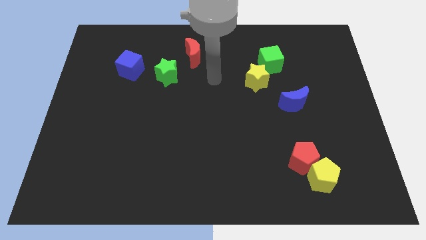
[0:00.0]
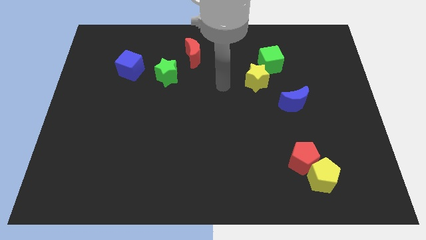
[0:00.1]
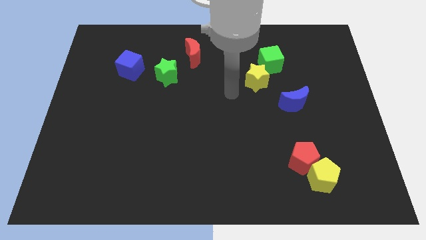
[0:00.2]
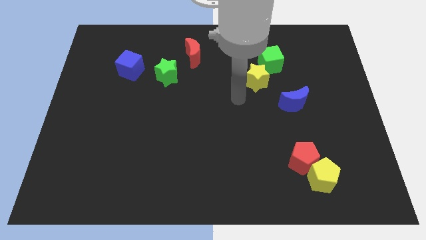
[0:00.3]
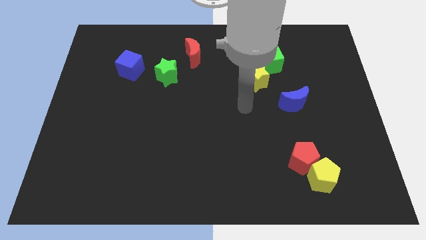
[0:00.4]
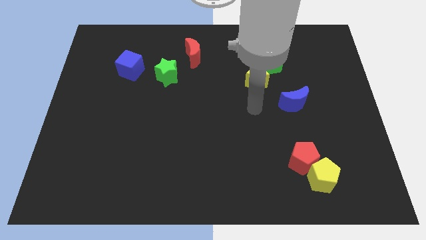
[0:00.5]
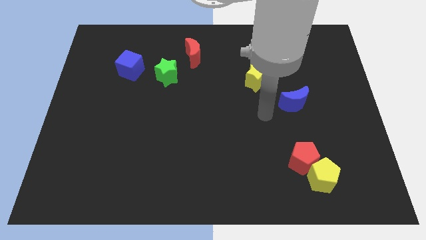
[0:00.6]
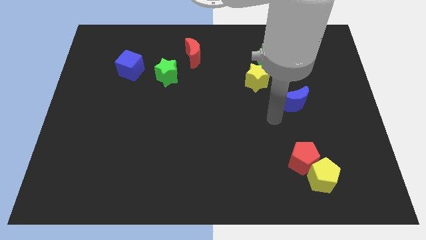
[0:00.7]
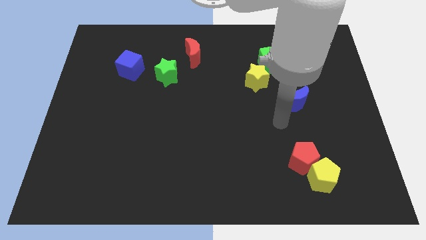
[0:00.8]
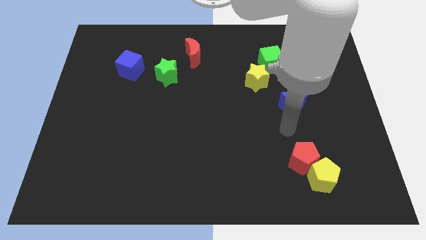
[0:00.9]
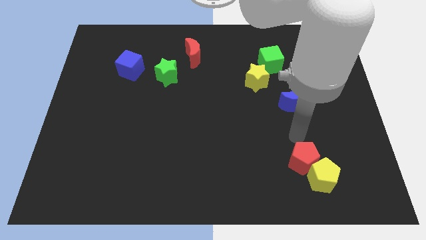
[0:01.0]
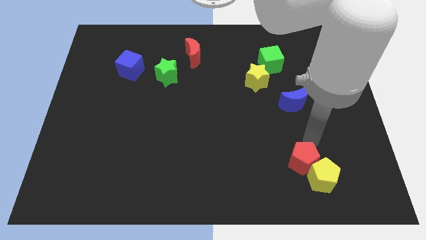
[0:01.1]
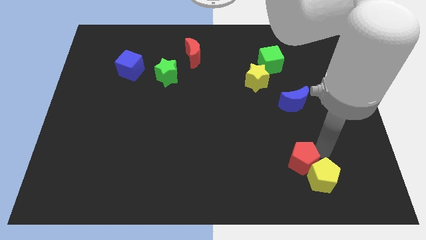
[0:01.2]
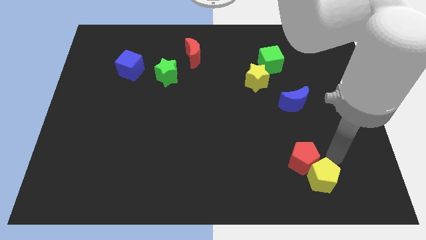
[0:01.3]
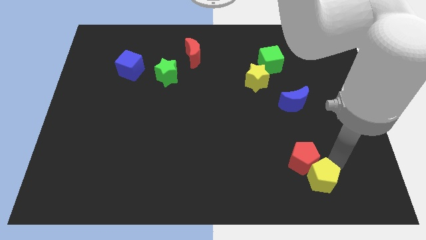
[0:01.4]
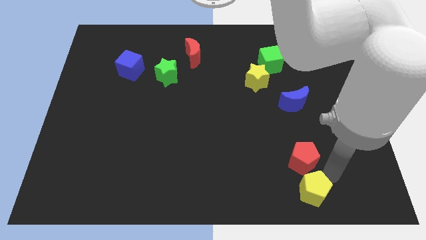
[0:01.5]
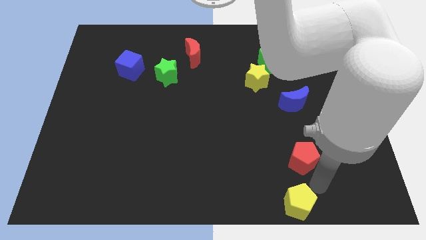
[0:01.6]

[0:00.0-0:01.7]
pull the red pentagon apart from the yellow pentagon

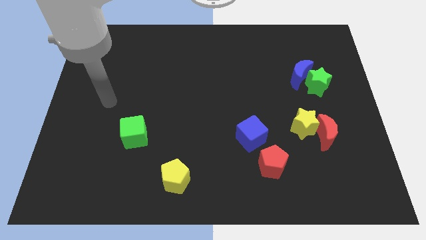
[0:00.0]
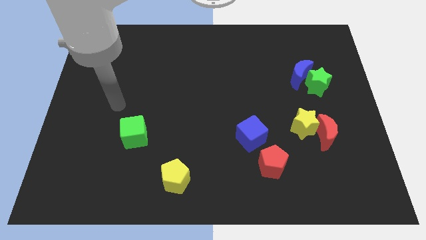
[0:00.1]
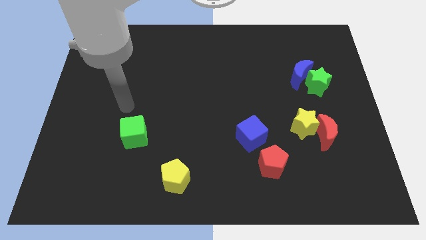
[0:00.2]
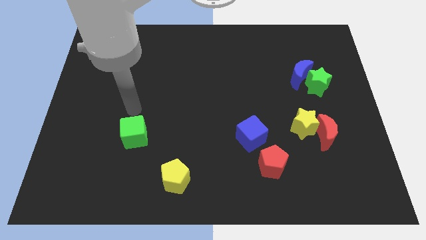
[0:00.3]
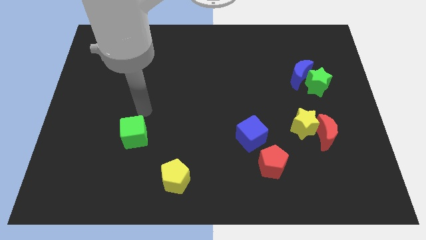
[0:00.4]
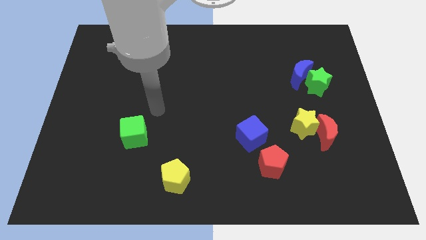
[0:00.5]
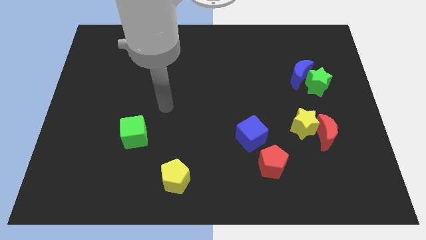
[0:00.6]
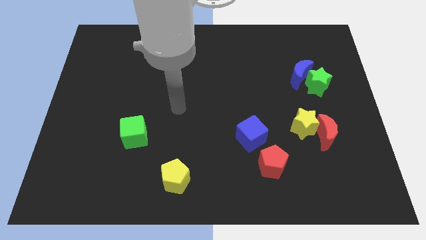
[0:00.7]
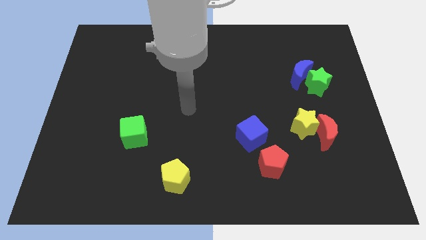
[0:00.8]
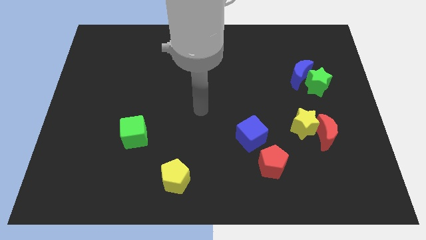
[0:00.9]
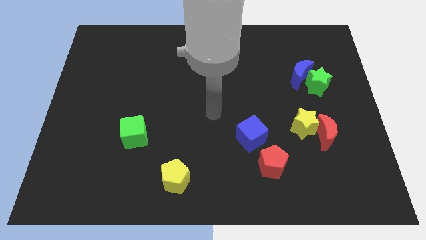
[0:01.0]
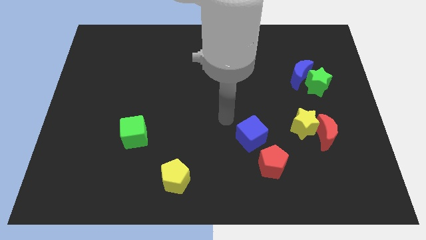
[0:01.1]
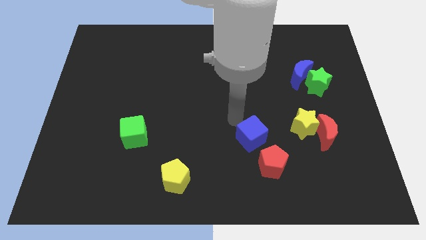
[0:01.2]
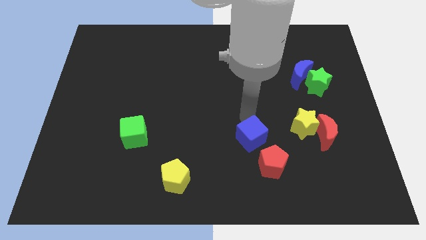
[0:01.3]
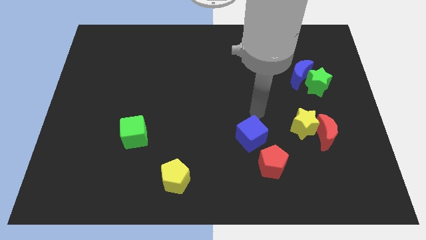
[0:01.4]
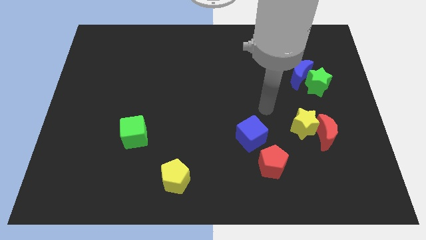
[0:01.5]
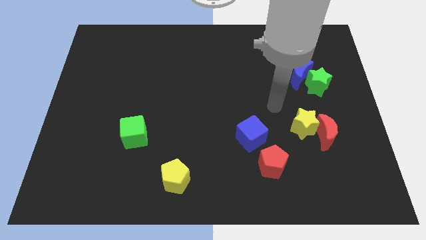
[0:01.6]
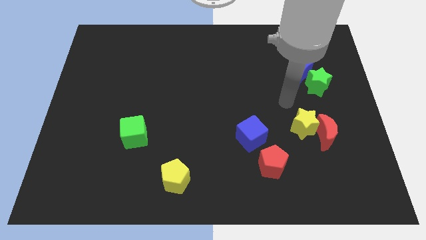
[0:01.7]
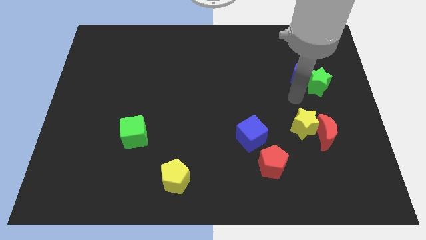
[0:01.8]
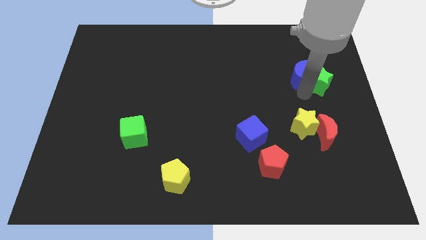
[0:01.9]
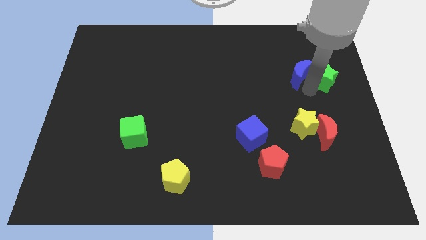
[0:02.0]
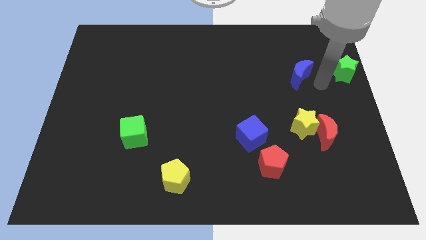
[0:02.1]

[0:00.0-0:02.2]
separate the blue moon from the green star

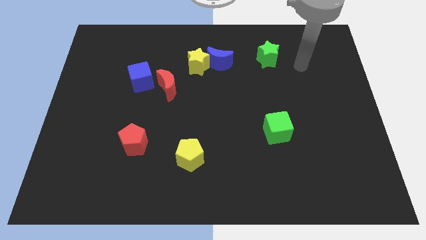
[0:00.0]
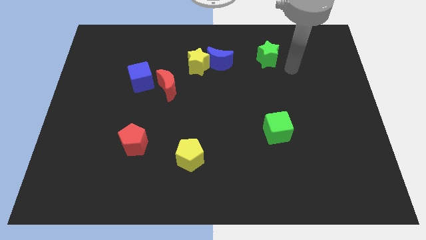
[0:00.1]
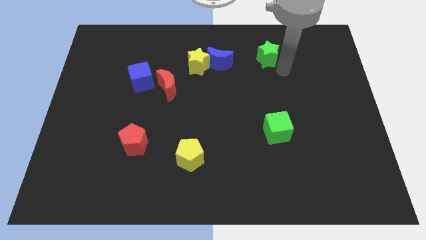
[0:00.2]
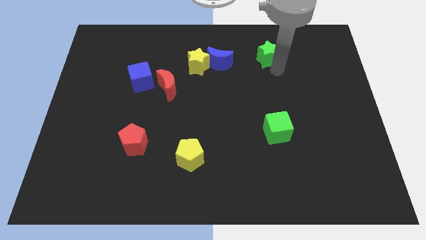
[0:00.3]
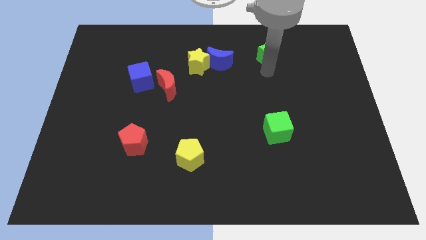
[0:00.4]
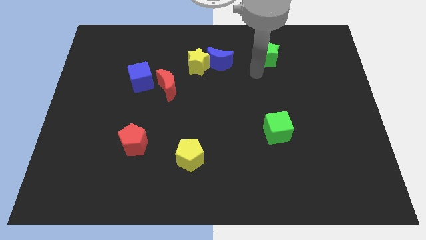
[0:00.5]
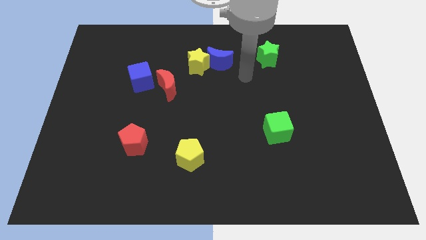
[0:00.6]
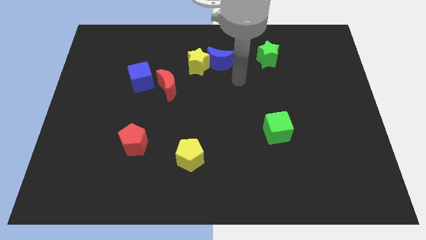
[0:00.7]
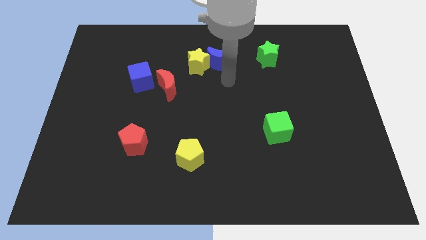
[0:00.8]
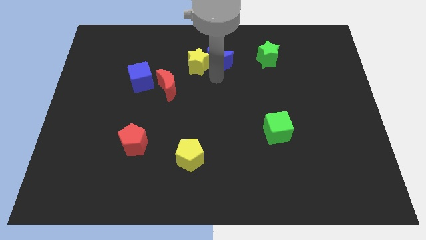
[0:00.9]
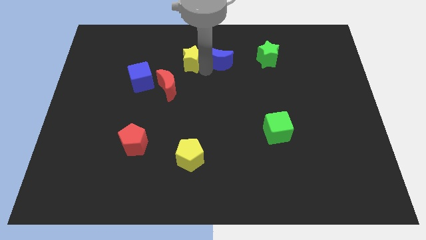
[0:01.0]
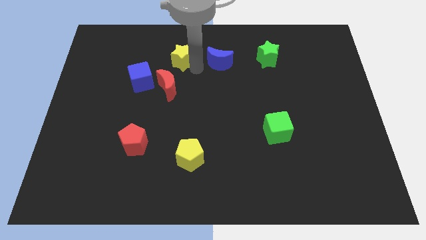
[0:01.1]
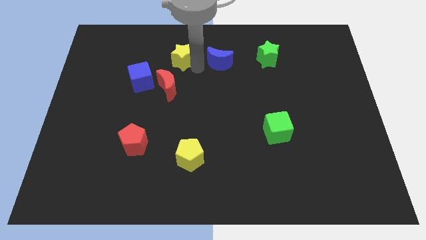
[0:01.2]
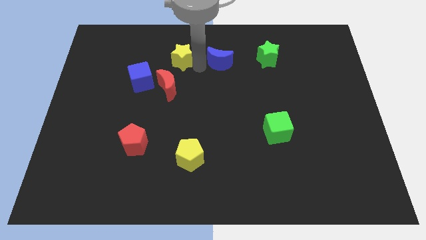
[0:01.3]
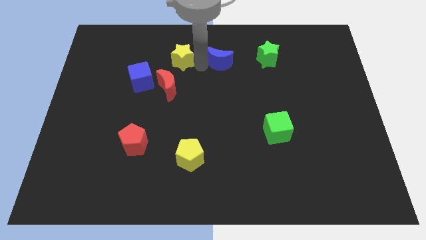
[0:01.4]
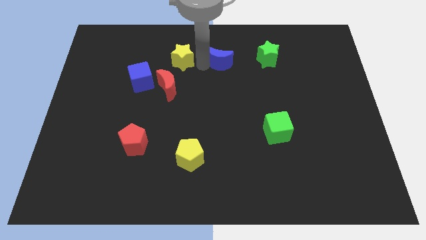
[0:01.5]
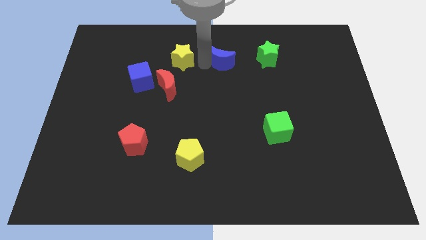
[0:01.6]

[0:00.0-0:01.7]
separate the blue moon from the yellow star

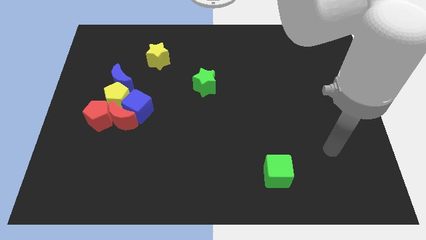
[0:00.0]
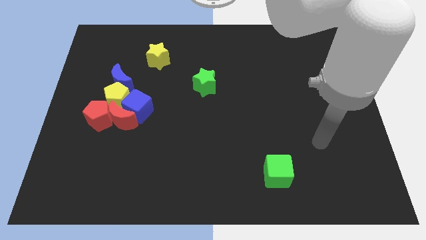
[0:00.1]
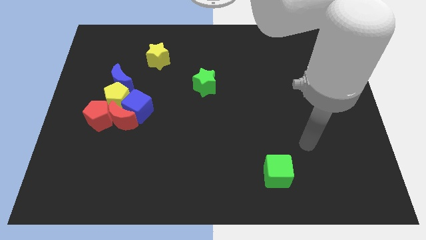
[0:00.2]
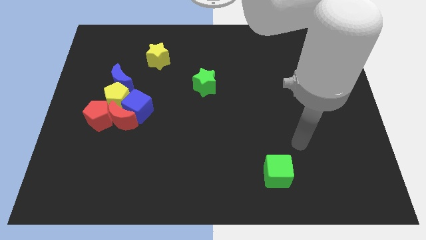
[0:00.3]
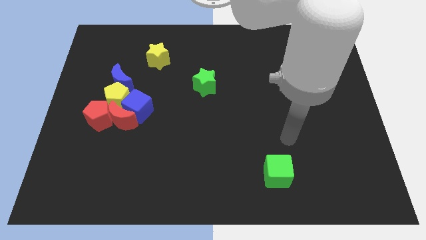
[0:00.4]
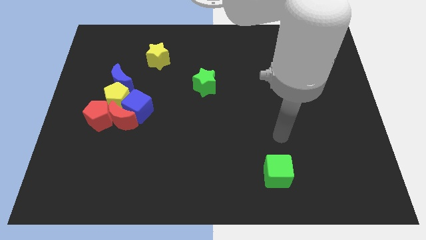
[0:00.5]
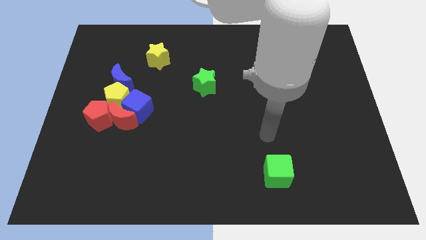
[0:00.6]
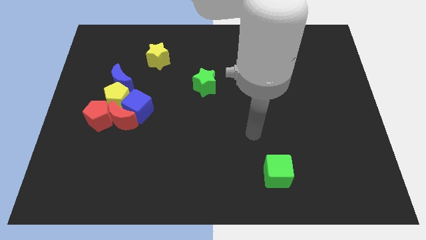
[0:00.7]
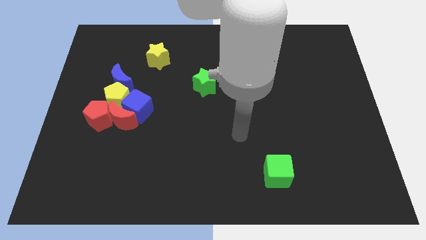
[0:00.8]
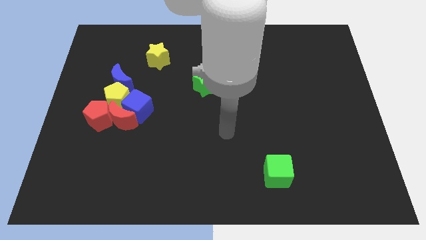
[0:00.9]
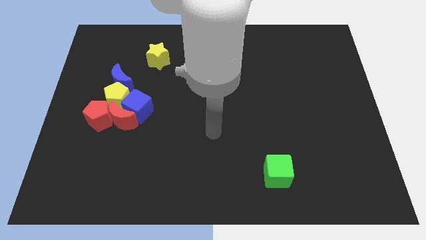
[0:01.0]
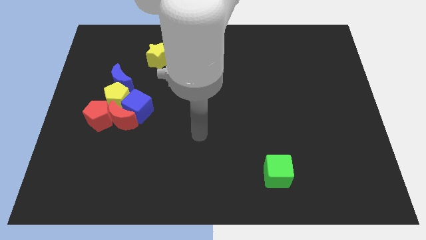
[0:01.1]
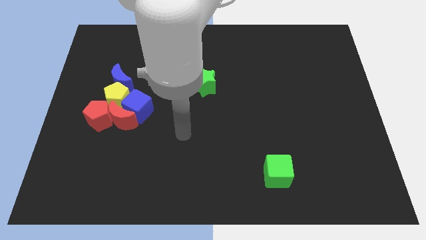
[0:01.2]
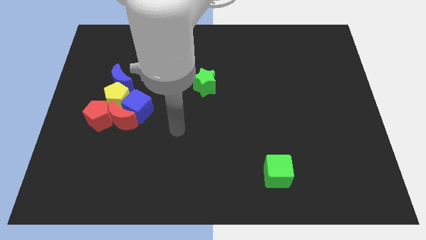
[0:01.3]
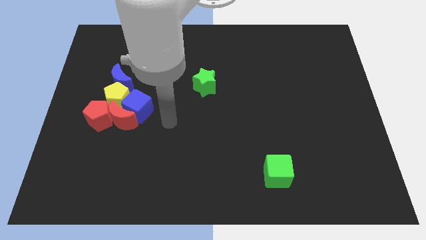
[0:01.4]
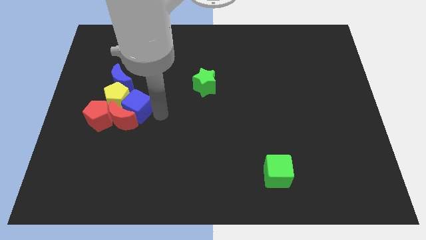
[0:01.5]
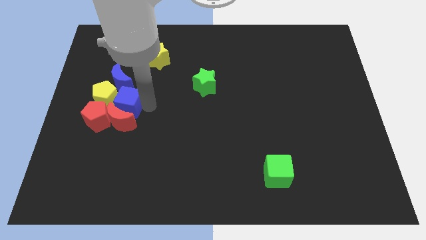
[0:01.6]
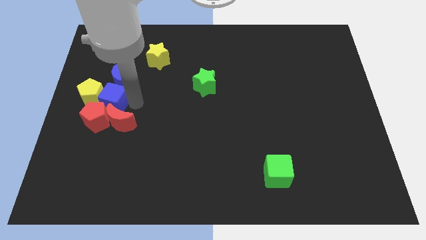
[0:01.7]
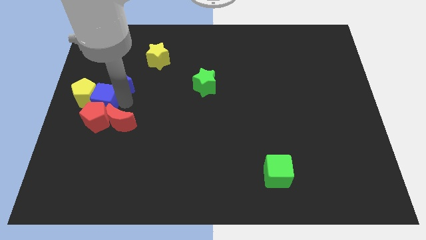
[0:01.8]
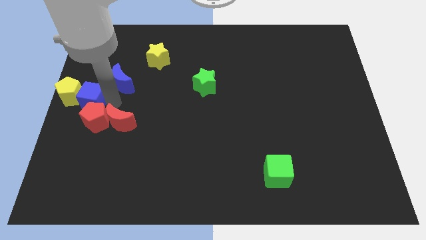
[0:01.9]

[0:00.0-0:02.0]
pull the red moon apart from the group

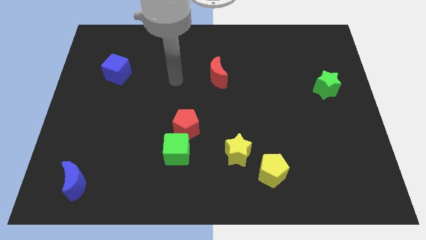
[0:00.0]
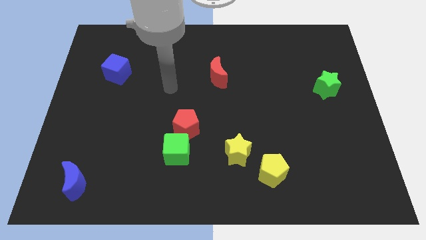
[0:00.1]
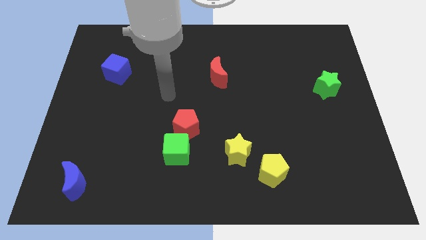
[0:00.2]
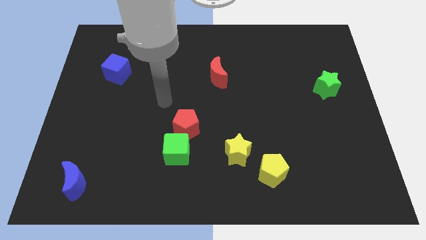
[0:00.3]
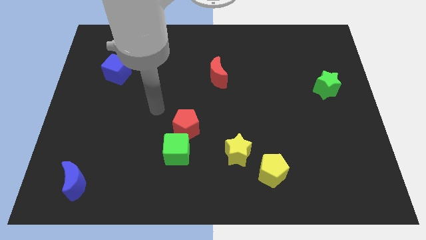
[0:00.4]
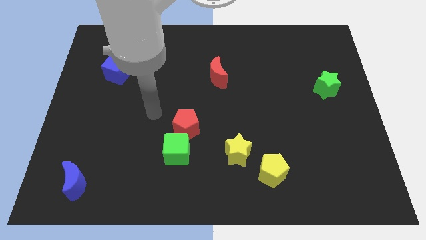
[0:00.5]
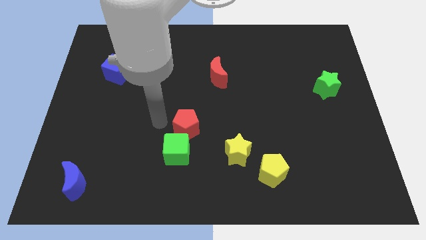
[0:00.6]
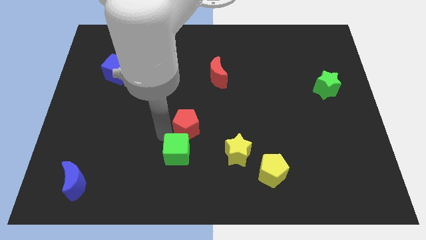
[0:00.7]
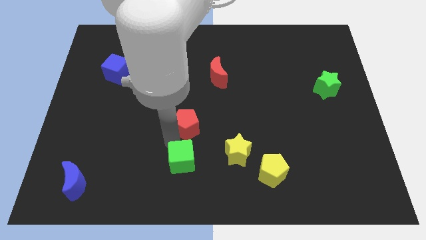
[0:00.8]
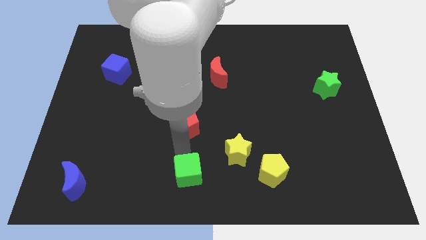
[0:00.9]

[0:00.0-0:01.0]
separate the red pentagon from the green cube

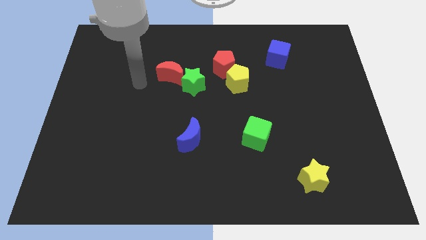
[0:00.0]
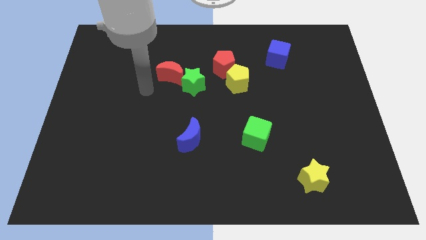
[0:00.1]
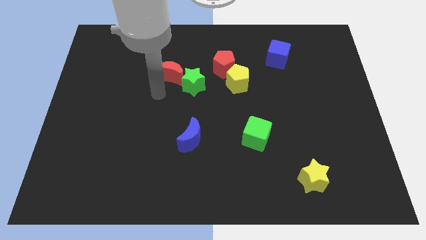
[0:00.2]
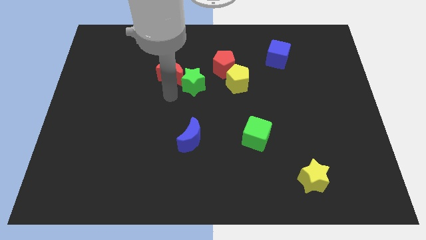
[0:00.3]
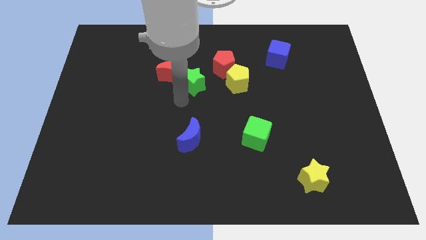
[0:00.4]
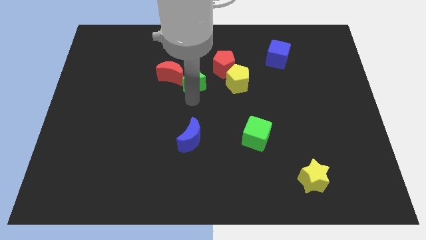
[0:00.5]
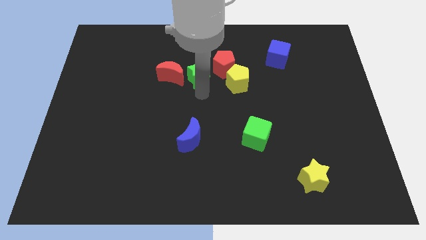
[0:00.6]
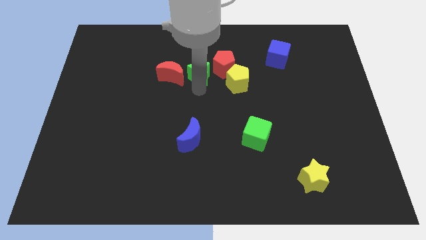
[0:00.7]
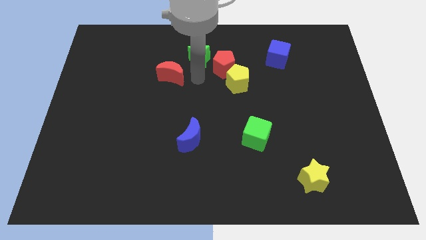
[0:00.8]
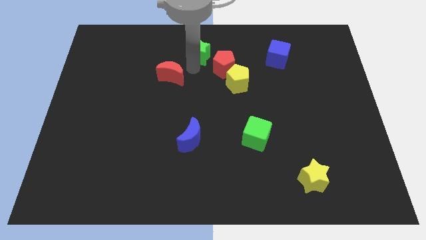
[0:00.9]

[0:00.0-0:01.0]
move the red moon away from the green star
